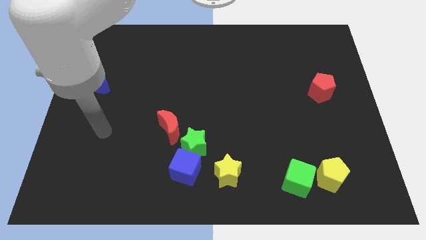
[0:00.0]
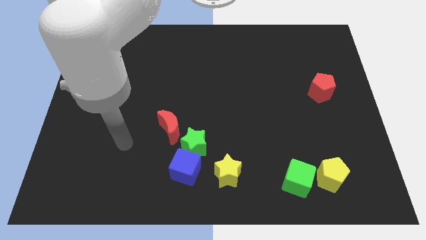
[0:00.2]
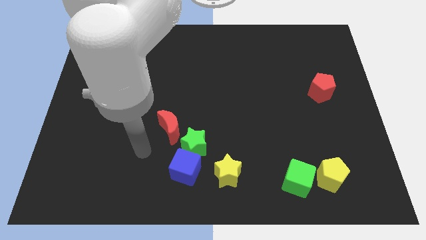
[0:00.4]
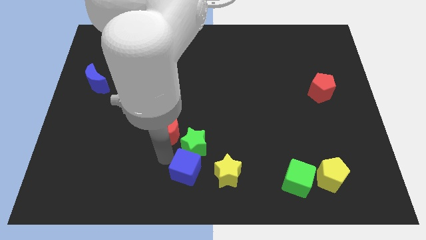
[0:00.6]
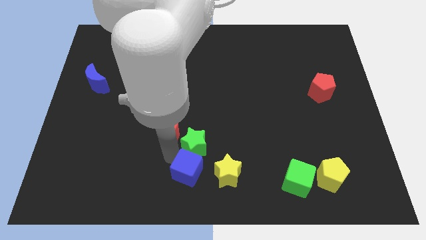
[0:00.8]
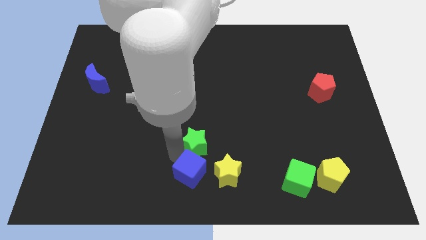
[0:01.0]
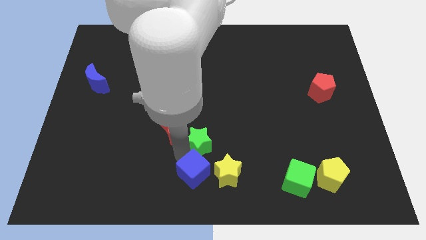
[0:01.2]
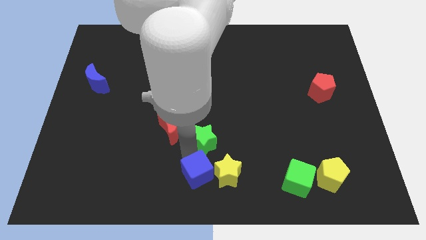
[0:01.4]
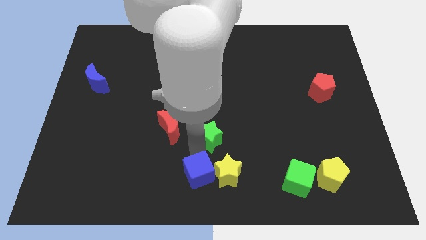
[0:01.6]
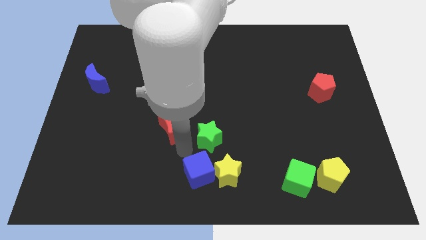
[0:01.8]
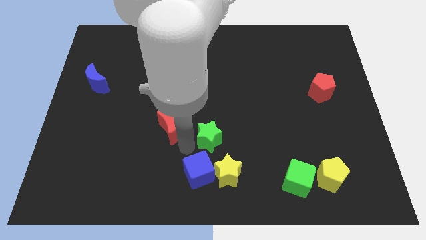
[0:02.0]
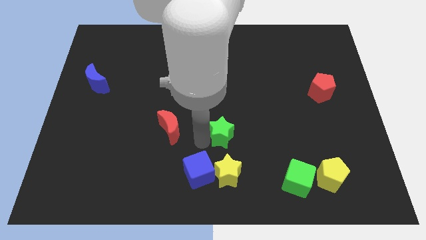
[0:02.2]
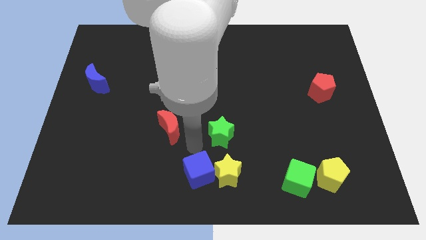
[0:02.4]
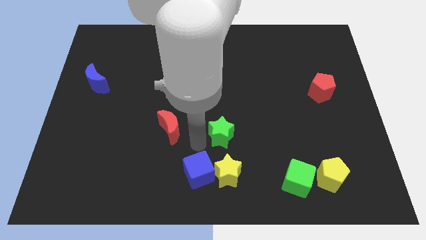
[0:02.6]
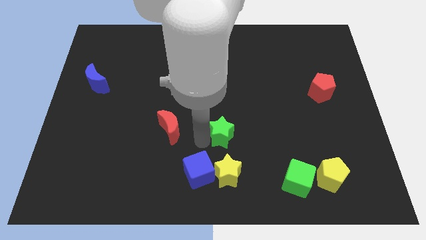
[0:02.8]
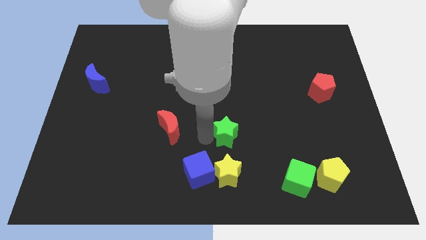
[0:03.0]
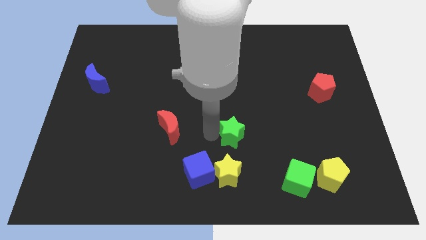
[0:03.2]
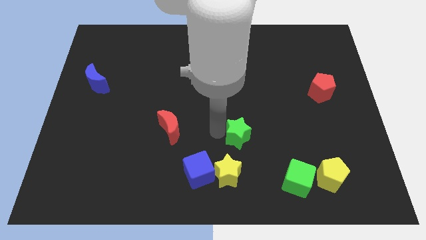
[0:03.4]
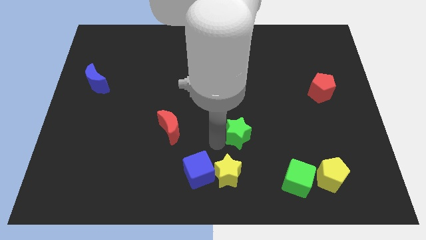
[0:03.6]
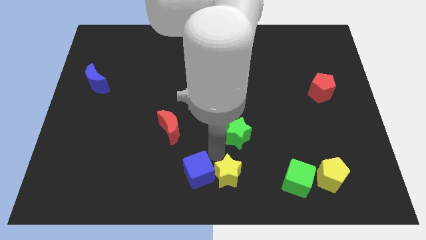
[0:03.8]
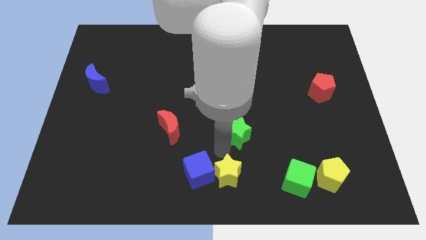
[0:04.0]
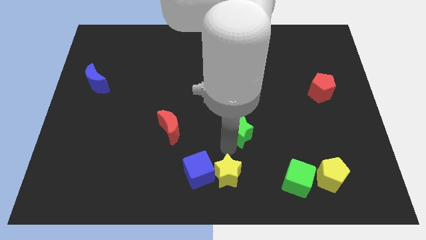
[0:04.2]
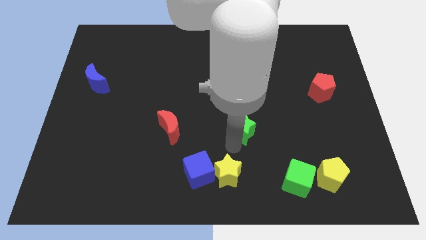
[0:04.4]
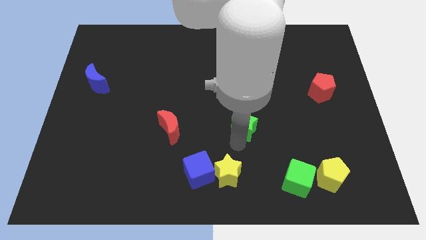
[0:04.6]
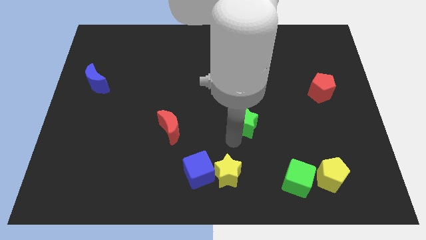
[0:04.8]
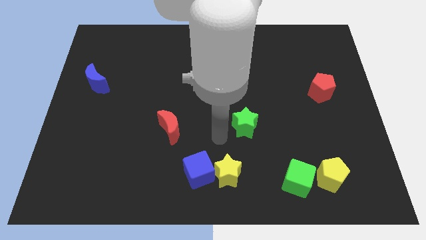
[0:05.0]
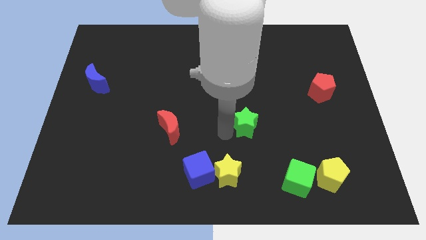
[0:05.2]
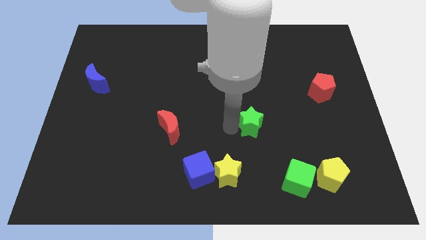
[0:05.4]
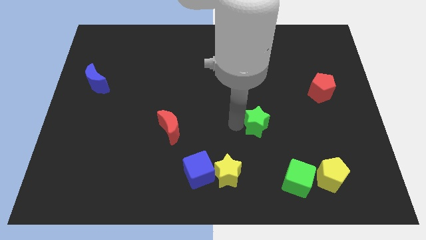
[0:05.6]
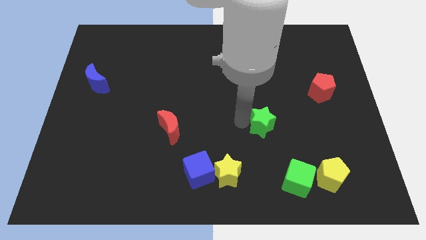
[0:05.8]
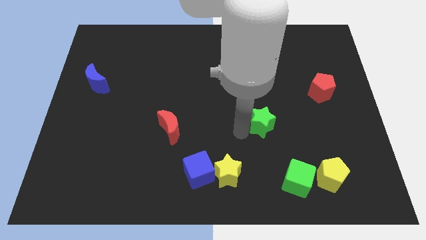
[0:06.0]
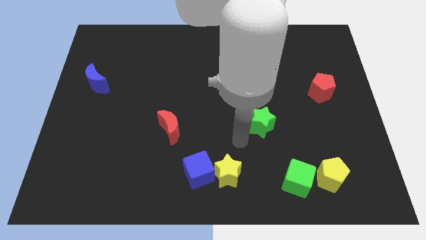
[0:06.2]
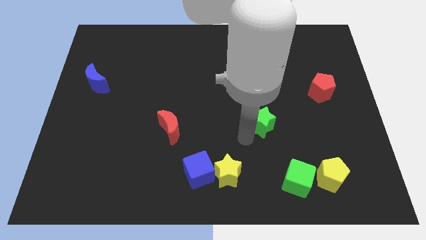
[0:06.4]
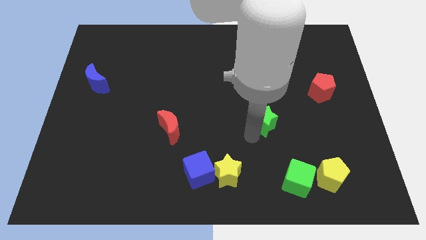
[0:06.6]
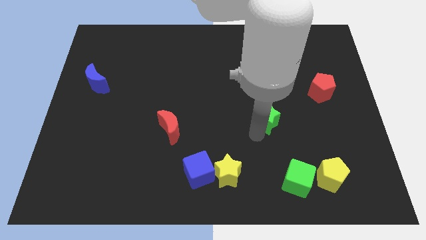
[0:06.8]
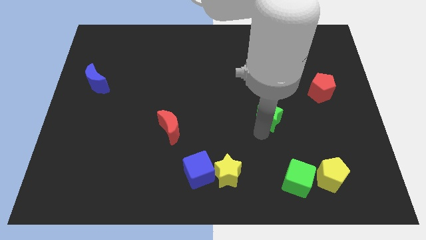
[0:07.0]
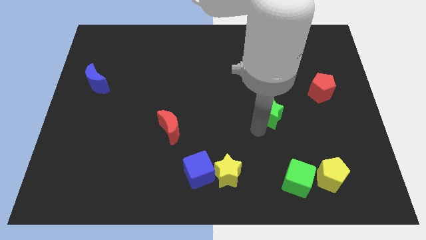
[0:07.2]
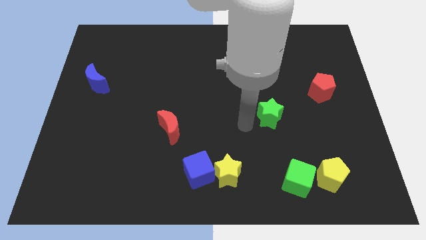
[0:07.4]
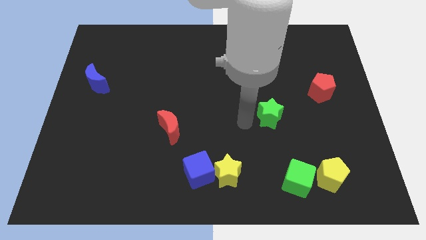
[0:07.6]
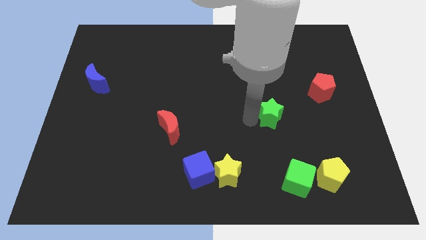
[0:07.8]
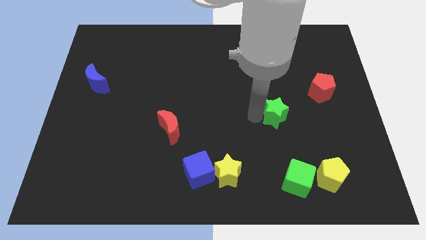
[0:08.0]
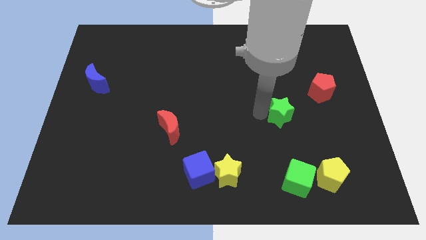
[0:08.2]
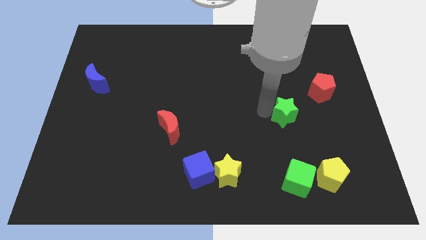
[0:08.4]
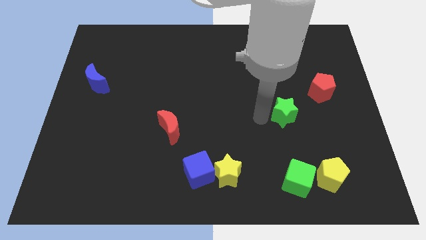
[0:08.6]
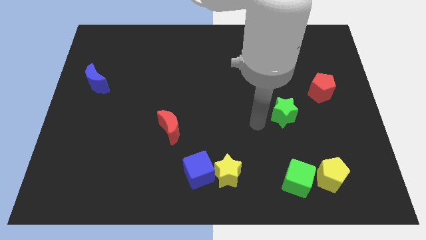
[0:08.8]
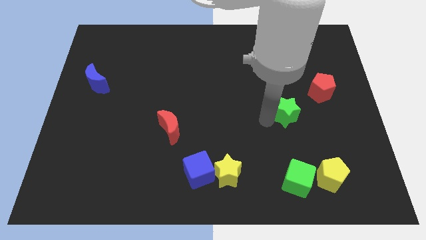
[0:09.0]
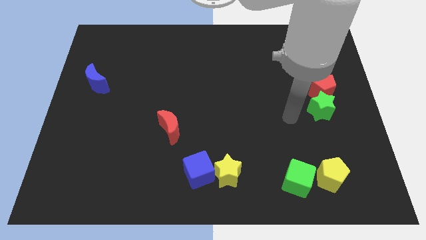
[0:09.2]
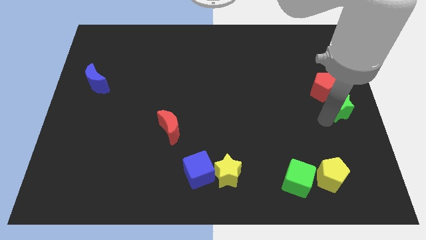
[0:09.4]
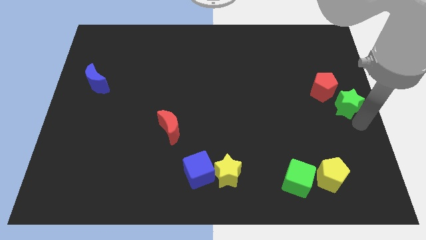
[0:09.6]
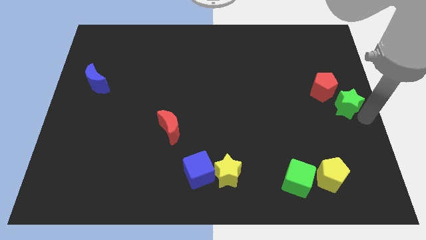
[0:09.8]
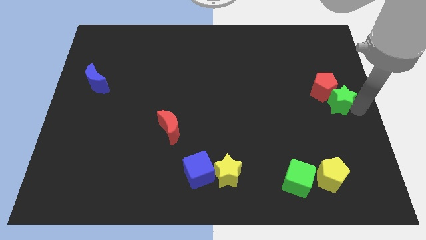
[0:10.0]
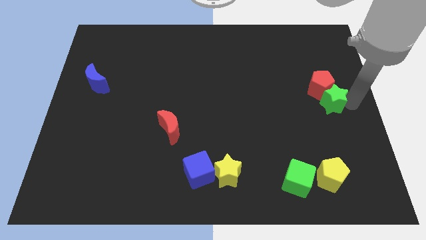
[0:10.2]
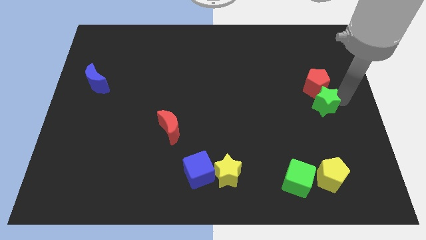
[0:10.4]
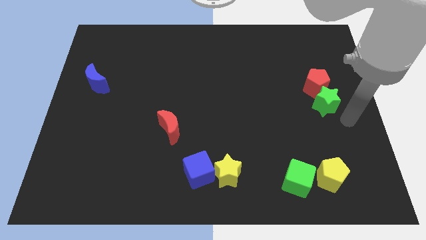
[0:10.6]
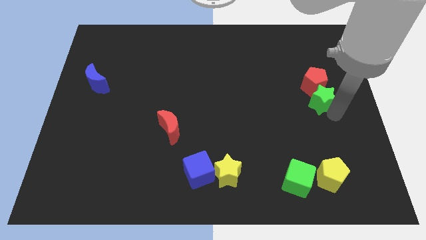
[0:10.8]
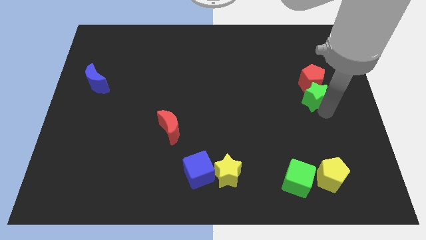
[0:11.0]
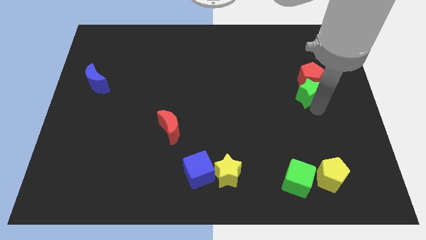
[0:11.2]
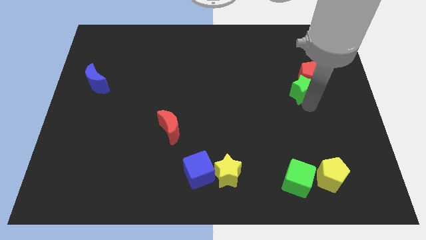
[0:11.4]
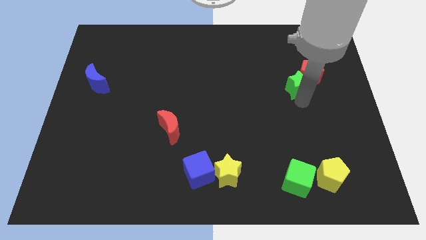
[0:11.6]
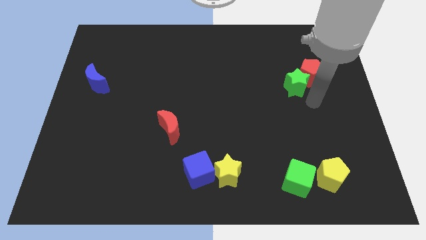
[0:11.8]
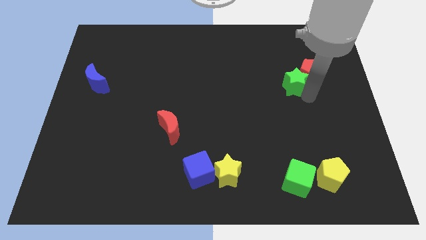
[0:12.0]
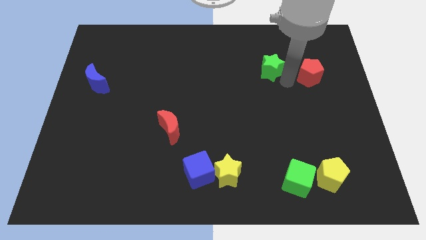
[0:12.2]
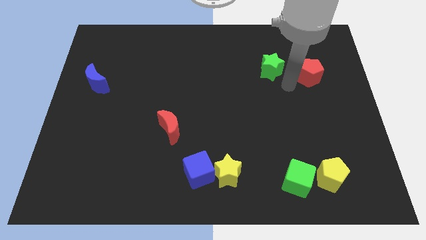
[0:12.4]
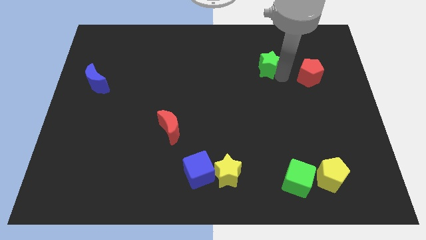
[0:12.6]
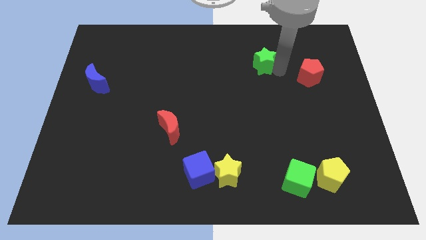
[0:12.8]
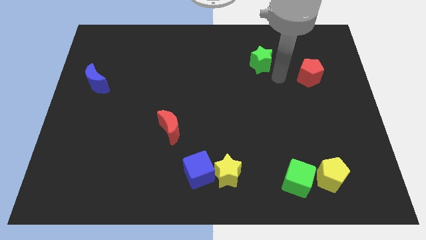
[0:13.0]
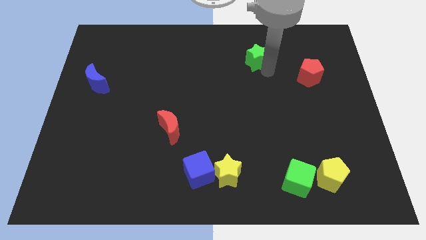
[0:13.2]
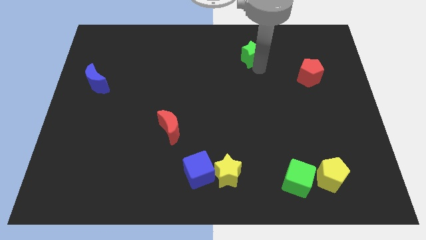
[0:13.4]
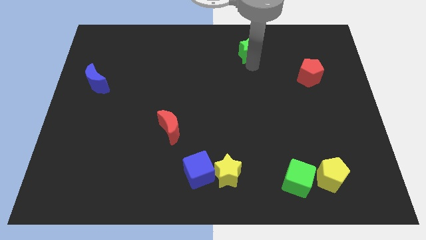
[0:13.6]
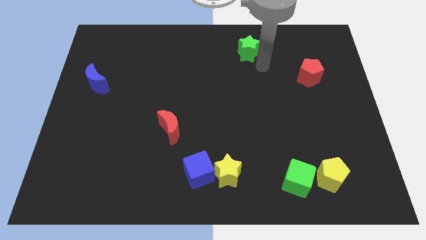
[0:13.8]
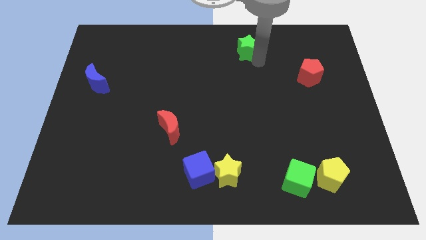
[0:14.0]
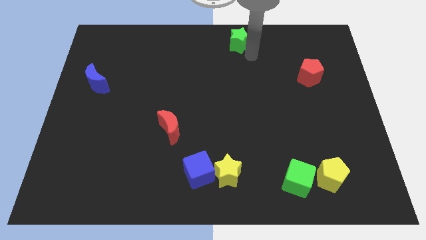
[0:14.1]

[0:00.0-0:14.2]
slide the green star to the towards your base

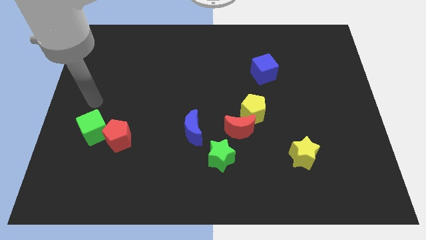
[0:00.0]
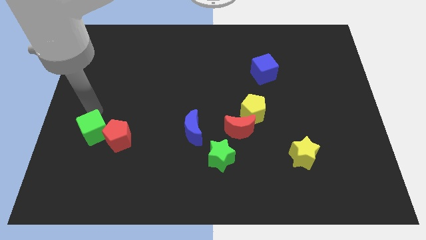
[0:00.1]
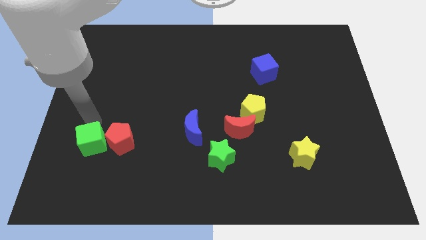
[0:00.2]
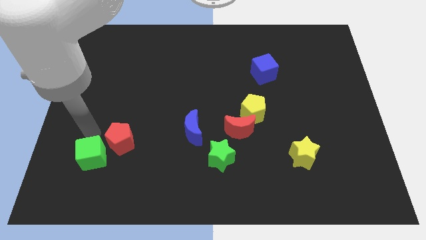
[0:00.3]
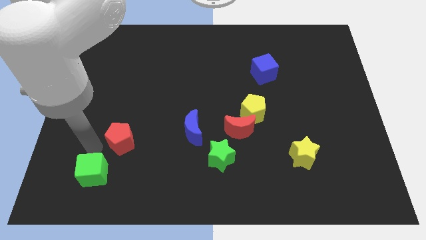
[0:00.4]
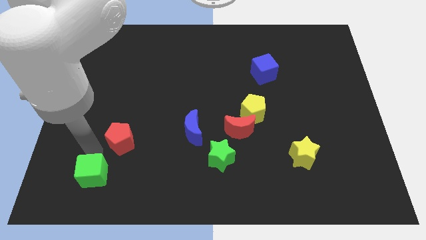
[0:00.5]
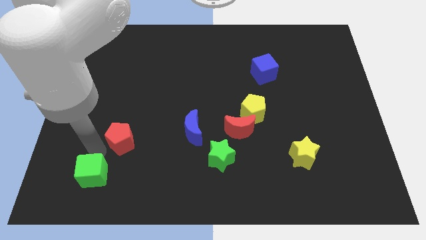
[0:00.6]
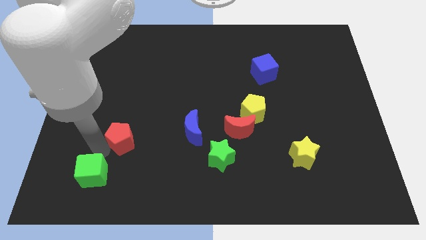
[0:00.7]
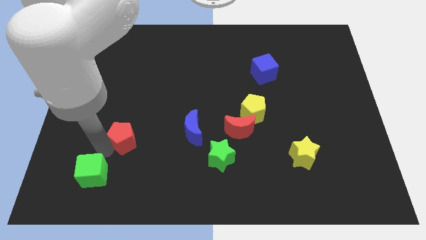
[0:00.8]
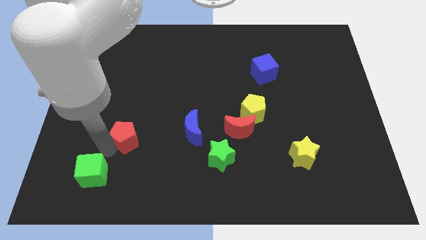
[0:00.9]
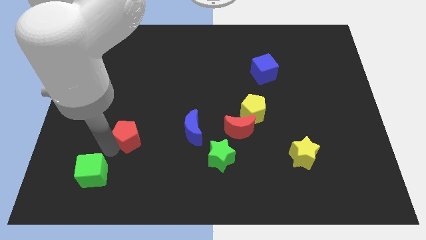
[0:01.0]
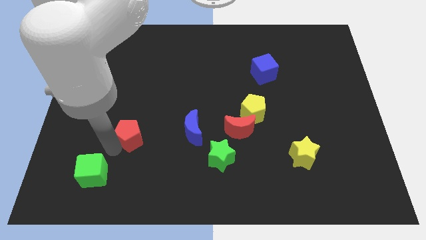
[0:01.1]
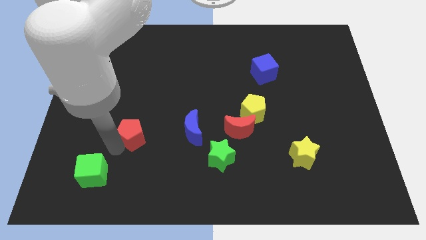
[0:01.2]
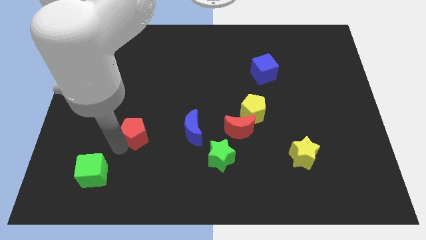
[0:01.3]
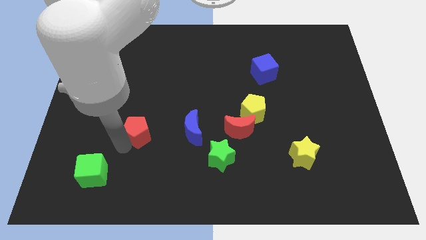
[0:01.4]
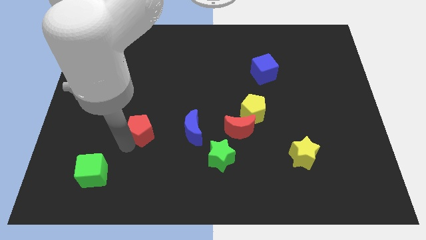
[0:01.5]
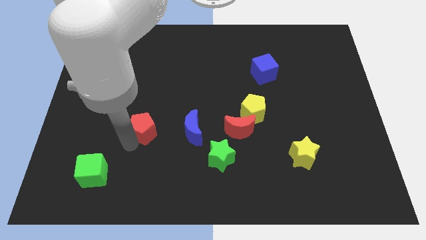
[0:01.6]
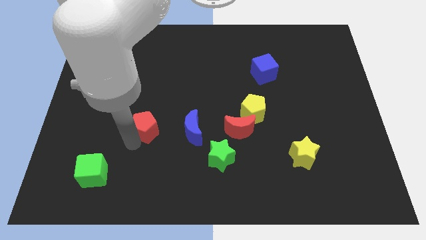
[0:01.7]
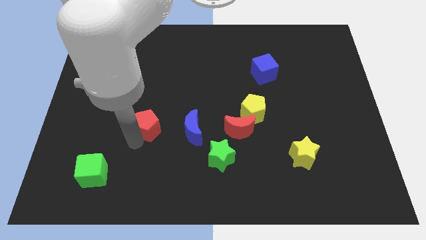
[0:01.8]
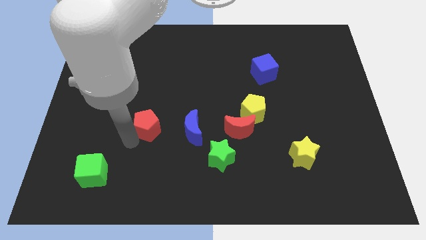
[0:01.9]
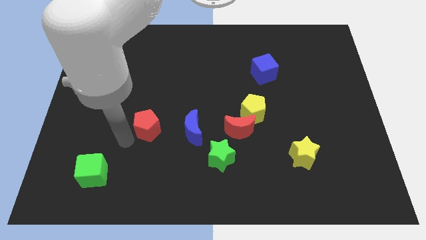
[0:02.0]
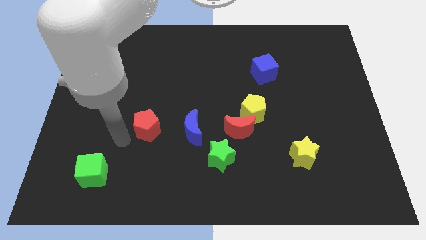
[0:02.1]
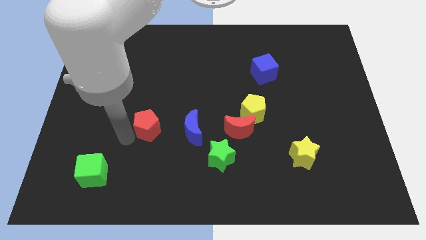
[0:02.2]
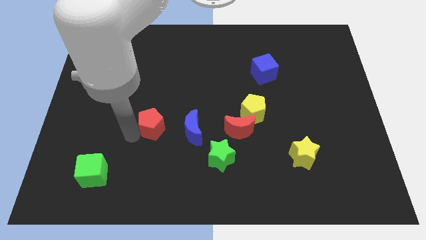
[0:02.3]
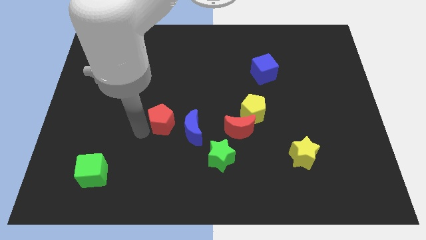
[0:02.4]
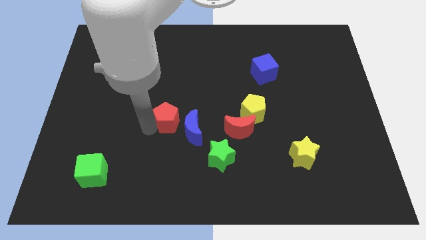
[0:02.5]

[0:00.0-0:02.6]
slide the red pentagon to the center of the board
